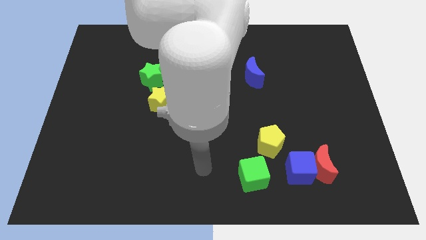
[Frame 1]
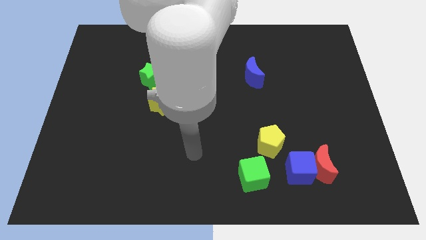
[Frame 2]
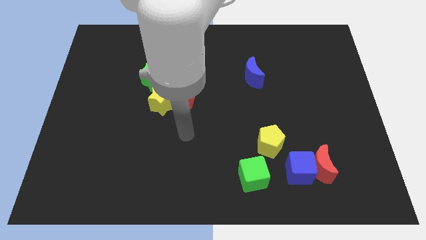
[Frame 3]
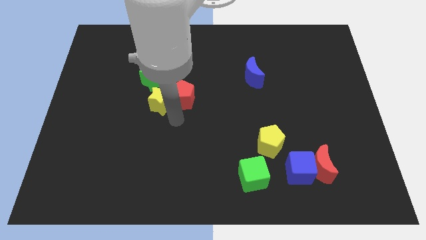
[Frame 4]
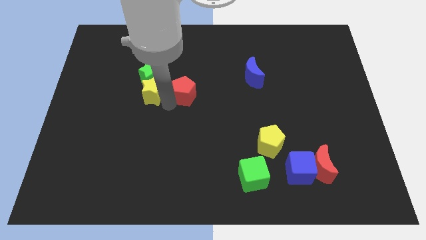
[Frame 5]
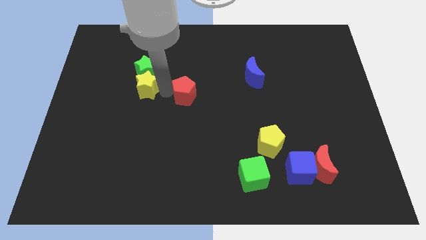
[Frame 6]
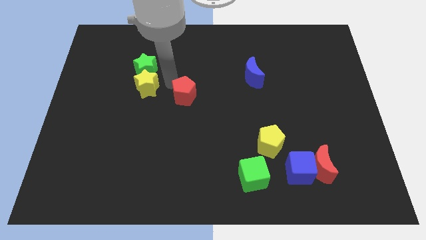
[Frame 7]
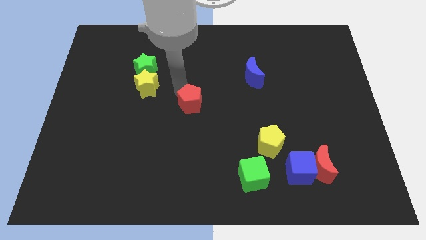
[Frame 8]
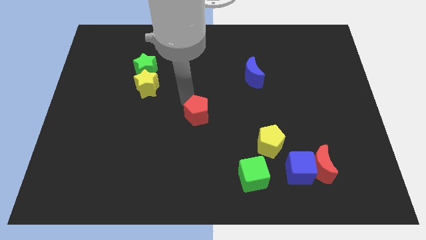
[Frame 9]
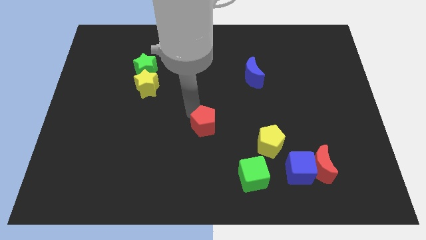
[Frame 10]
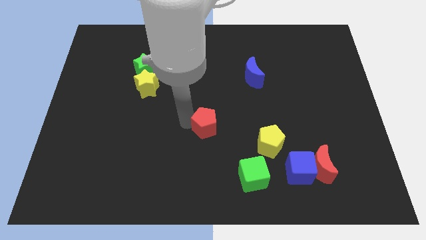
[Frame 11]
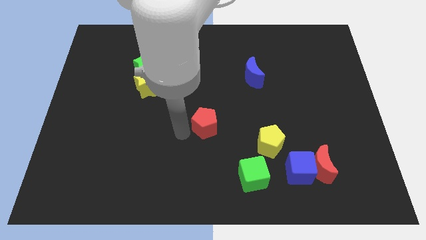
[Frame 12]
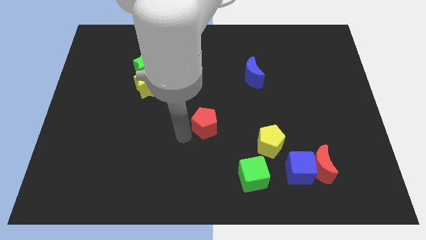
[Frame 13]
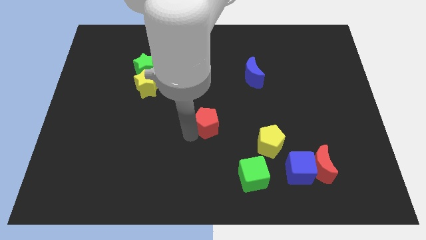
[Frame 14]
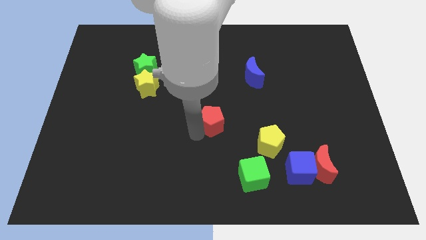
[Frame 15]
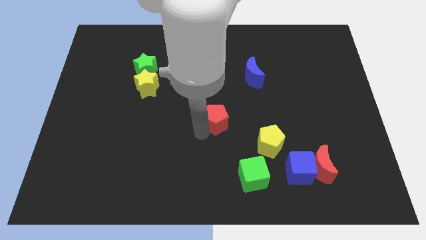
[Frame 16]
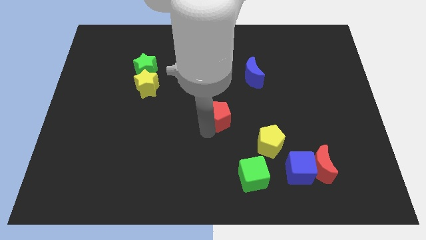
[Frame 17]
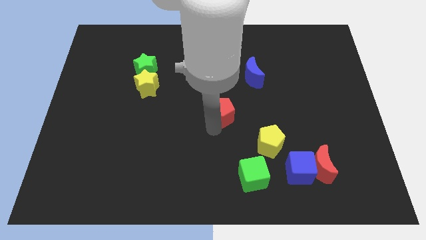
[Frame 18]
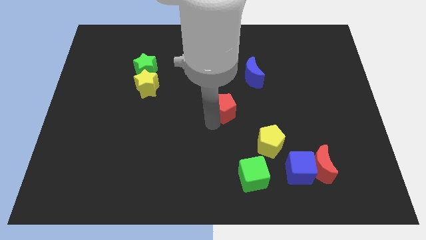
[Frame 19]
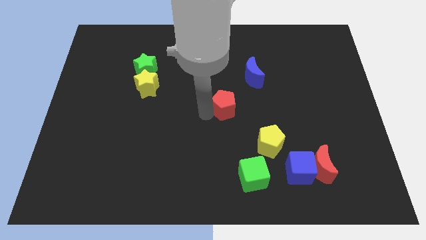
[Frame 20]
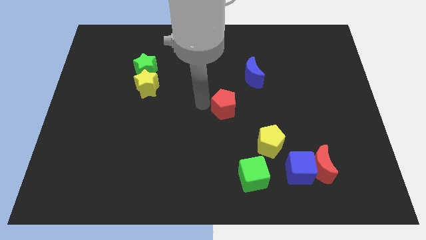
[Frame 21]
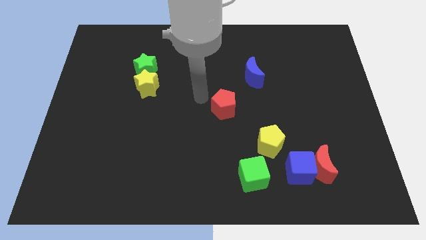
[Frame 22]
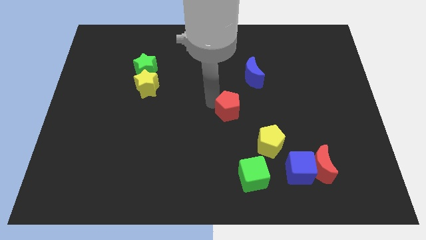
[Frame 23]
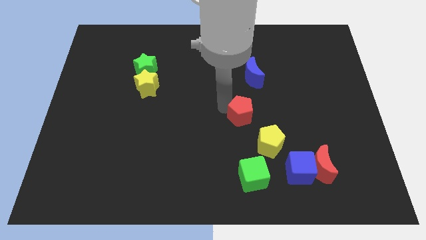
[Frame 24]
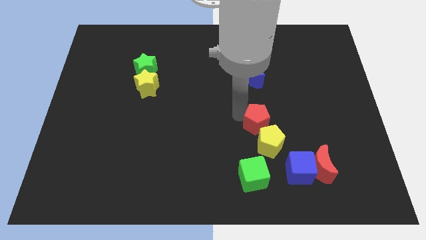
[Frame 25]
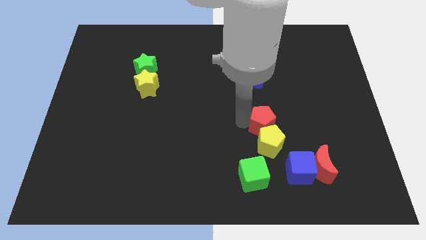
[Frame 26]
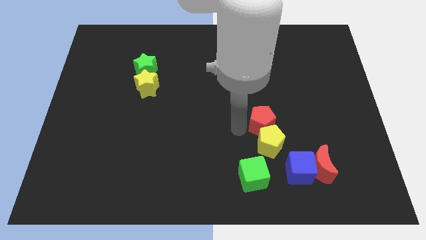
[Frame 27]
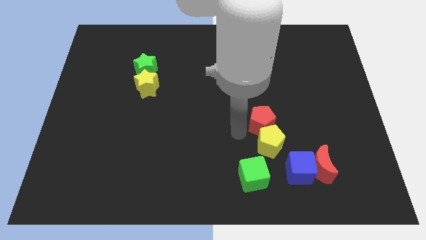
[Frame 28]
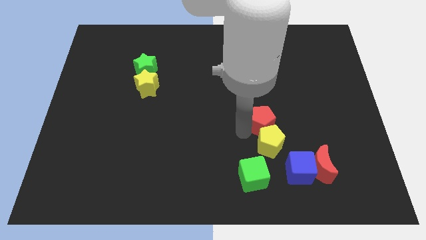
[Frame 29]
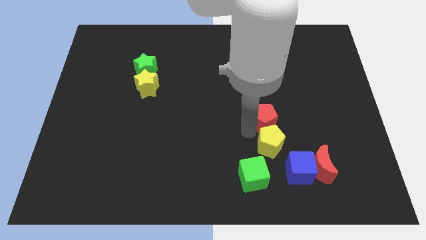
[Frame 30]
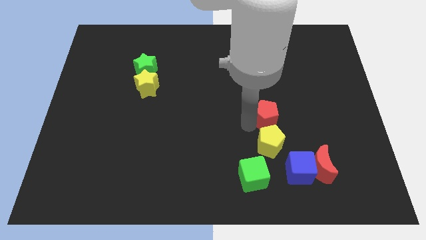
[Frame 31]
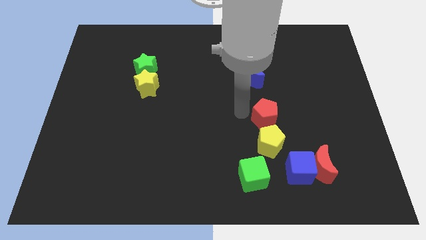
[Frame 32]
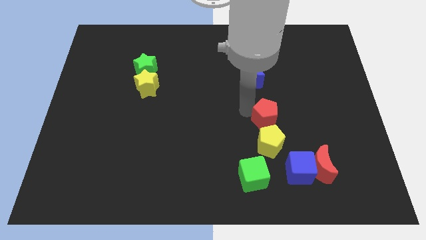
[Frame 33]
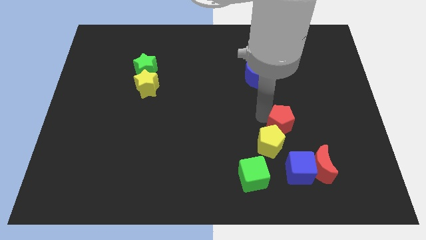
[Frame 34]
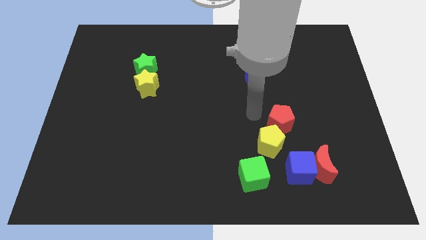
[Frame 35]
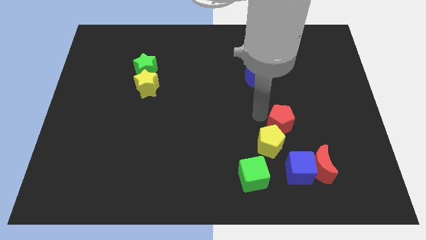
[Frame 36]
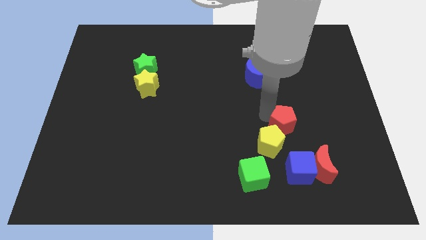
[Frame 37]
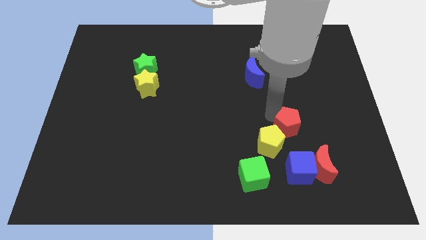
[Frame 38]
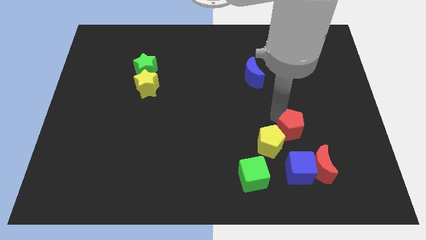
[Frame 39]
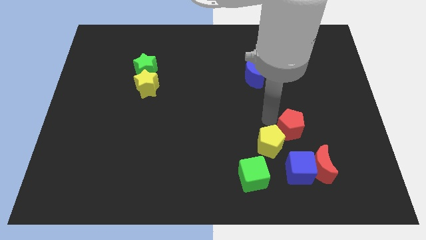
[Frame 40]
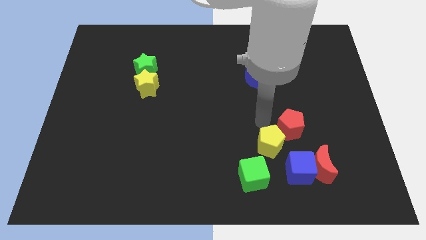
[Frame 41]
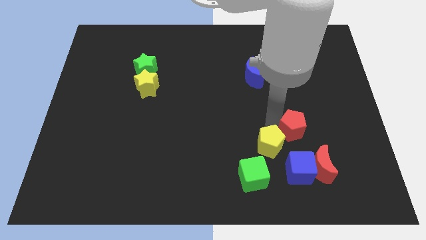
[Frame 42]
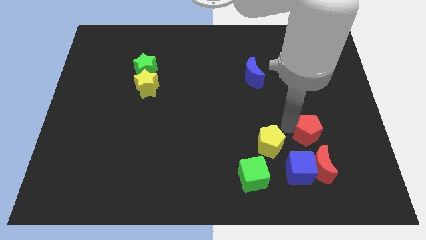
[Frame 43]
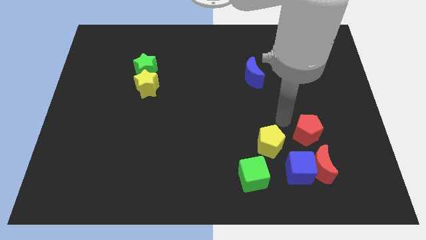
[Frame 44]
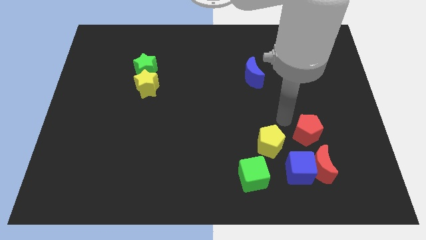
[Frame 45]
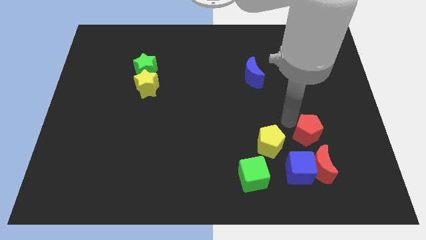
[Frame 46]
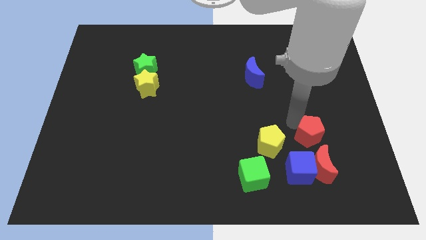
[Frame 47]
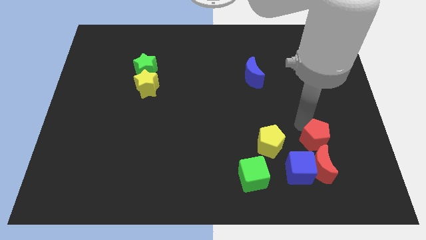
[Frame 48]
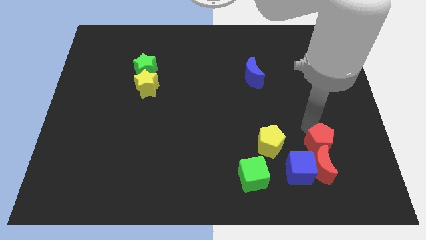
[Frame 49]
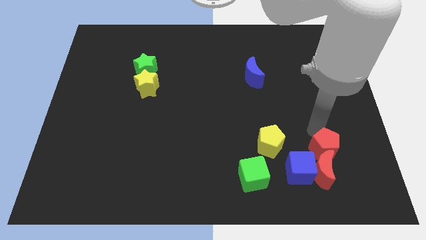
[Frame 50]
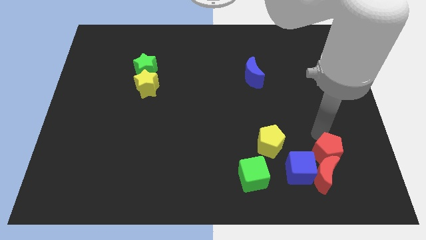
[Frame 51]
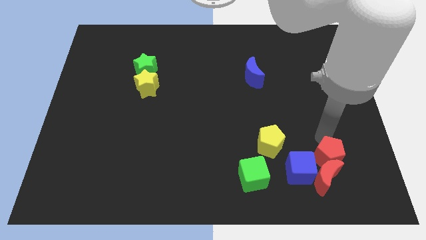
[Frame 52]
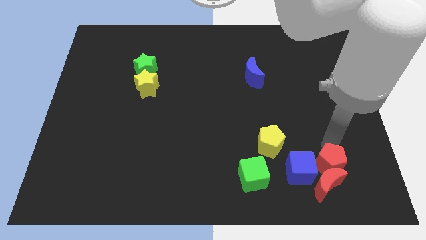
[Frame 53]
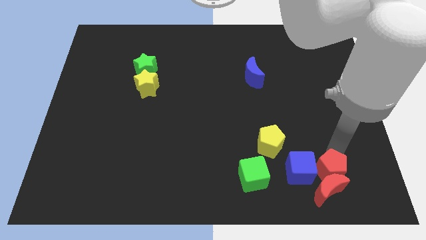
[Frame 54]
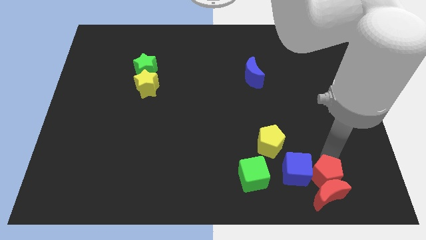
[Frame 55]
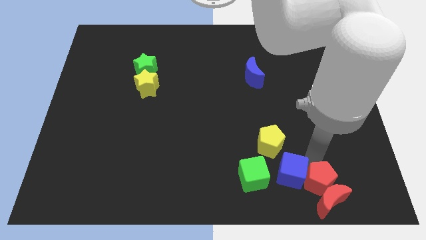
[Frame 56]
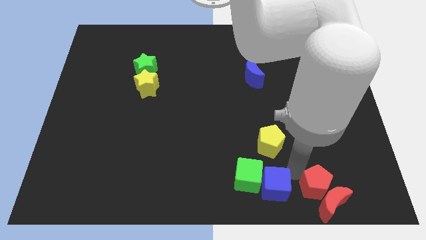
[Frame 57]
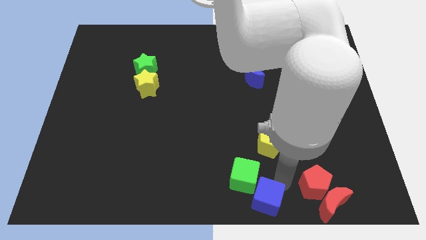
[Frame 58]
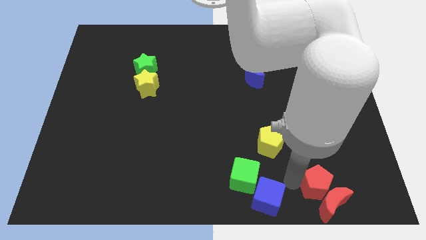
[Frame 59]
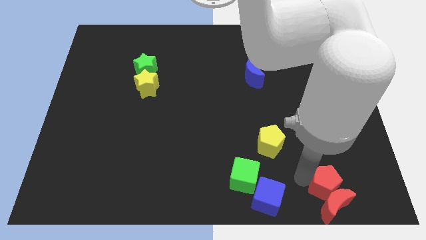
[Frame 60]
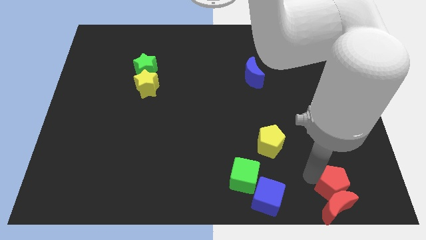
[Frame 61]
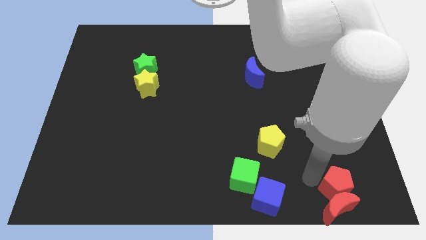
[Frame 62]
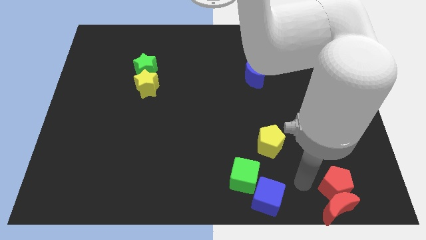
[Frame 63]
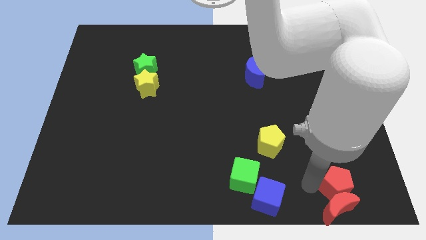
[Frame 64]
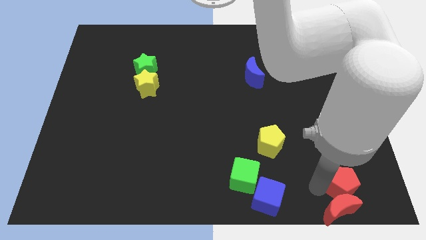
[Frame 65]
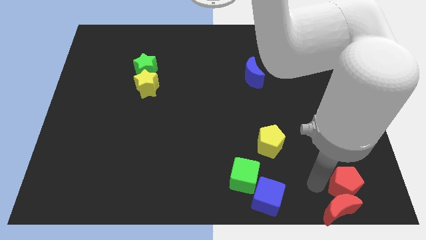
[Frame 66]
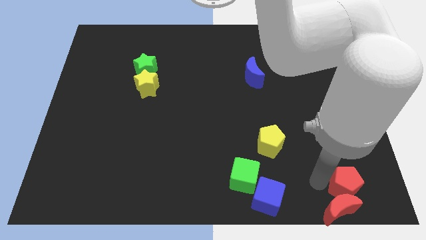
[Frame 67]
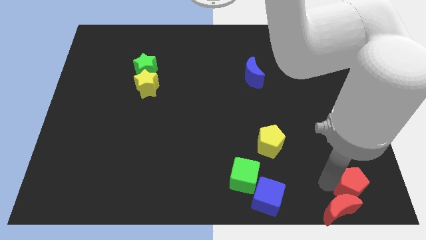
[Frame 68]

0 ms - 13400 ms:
slide the red pentagon to the bottom right corner

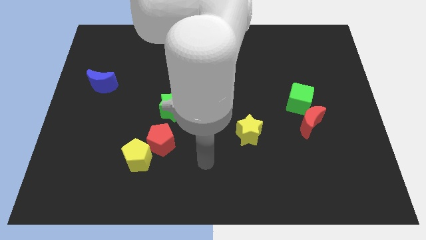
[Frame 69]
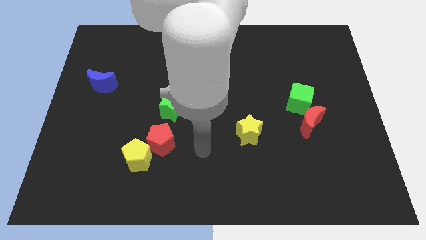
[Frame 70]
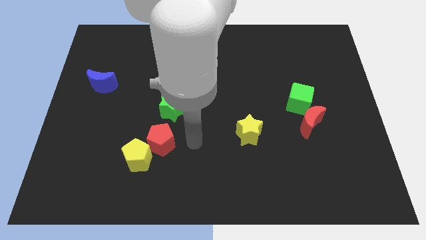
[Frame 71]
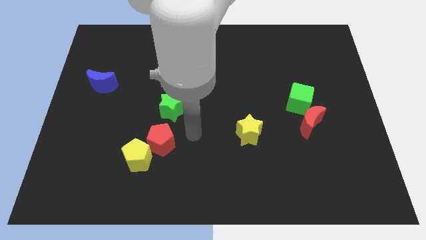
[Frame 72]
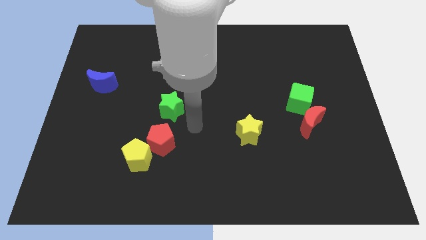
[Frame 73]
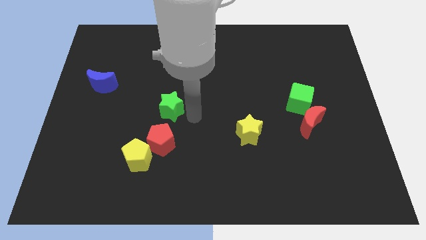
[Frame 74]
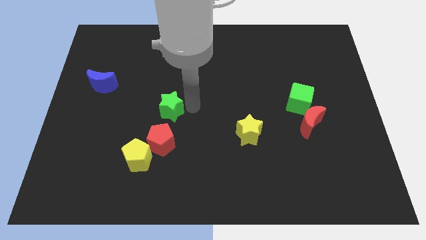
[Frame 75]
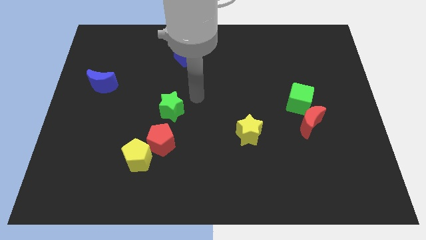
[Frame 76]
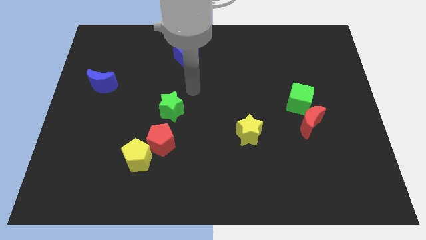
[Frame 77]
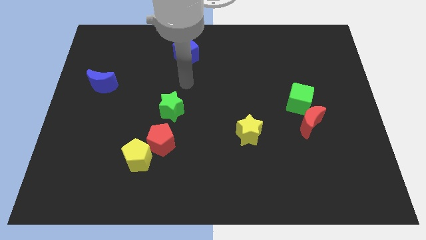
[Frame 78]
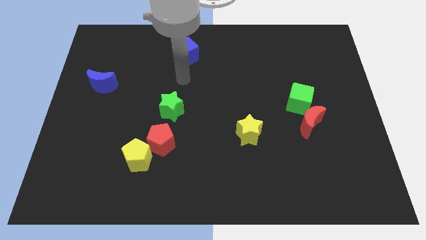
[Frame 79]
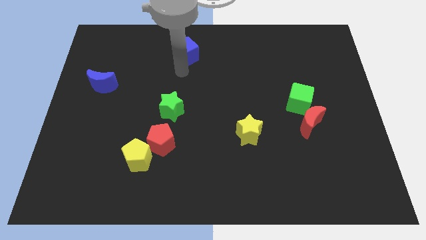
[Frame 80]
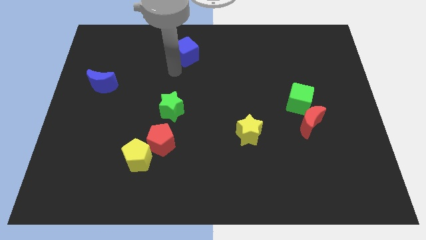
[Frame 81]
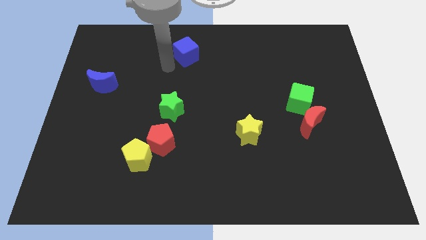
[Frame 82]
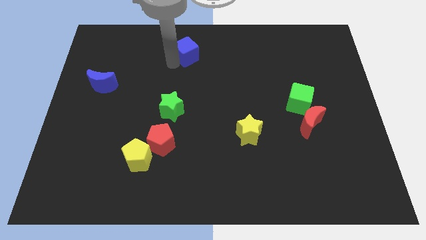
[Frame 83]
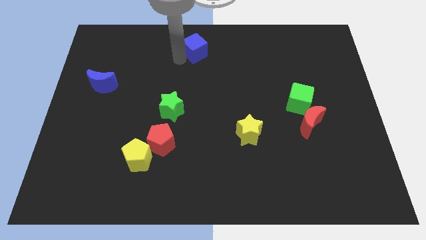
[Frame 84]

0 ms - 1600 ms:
move the blue cube to the top side

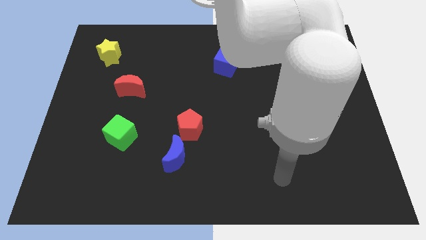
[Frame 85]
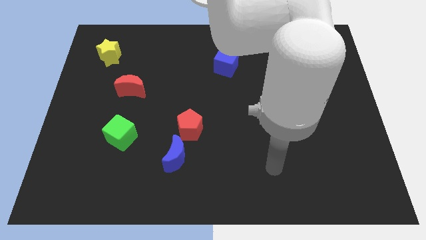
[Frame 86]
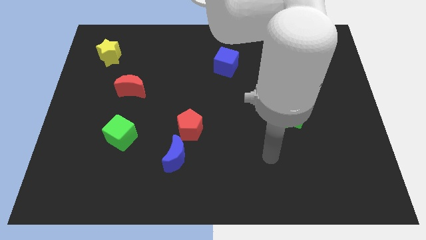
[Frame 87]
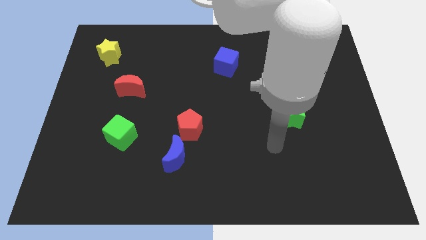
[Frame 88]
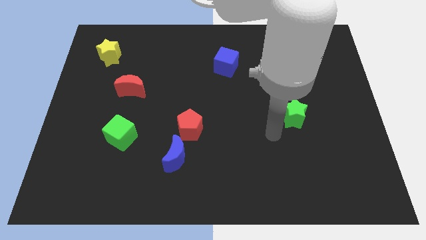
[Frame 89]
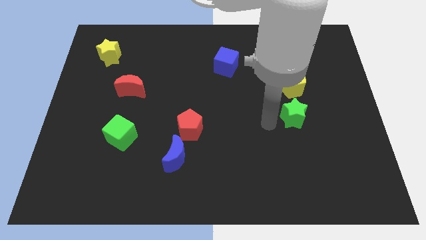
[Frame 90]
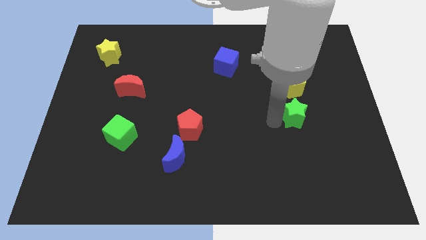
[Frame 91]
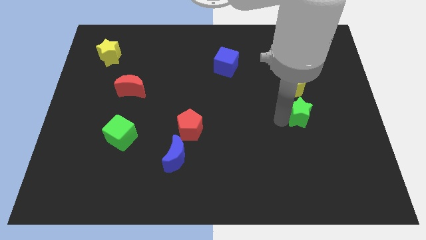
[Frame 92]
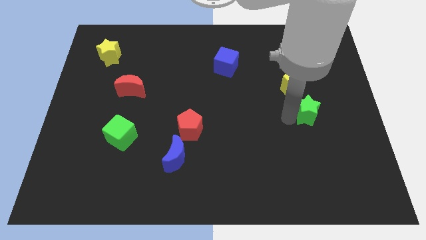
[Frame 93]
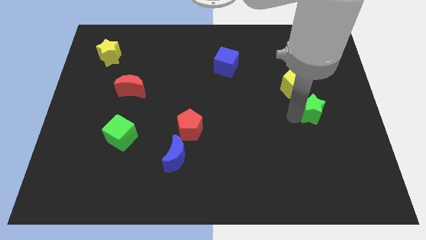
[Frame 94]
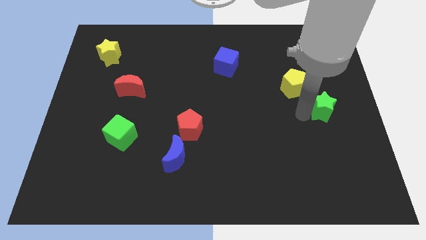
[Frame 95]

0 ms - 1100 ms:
move the green star to the right side of the board
